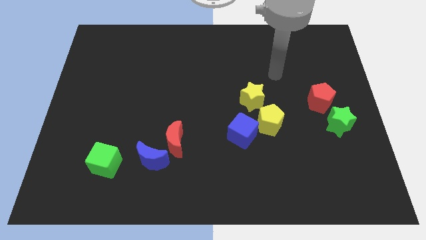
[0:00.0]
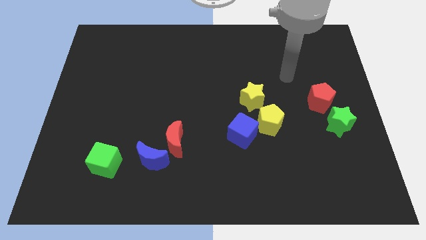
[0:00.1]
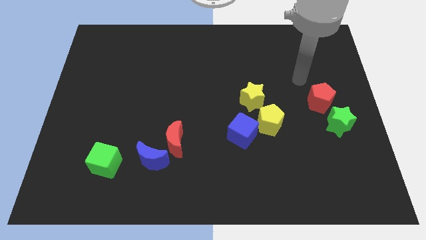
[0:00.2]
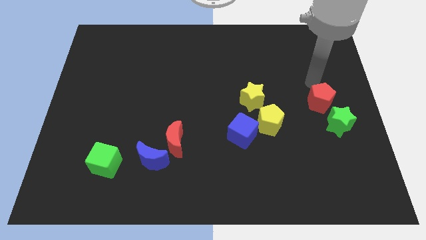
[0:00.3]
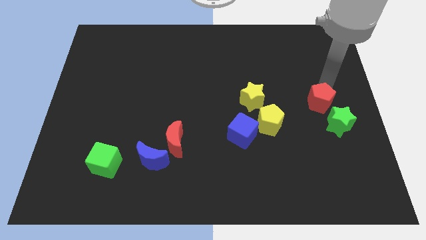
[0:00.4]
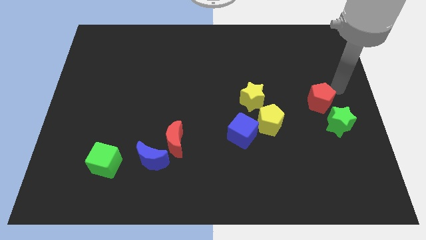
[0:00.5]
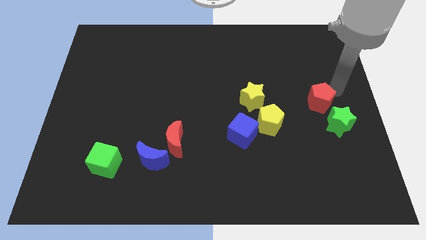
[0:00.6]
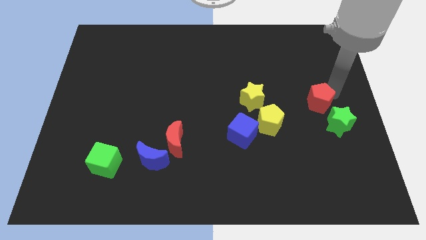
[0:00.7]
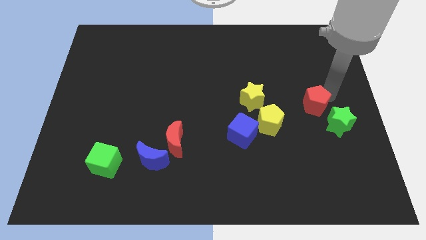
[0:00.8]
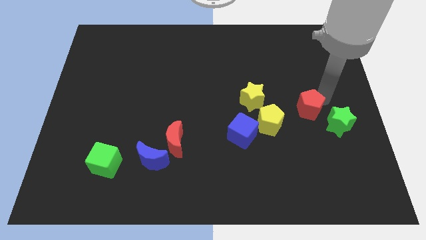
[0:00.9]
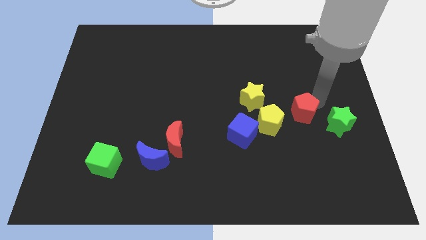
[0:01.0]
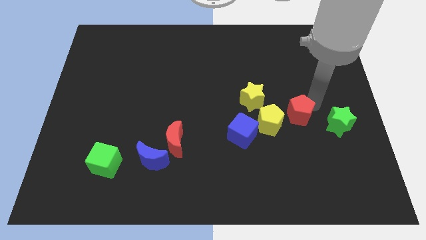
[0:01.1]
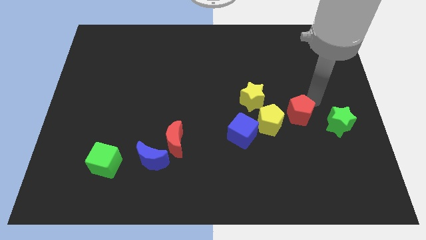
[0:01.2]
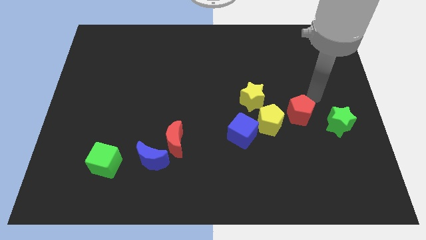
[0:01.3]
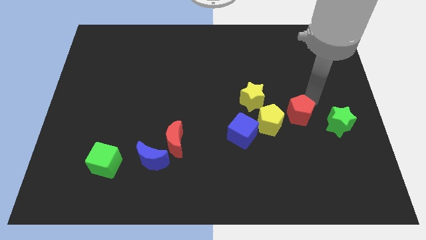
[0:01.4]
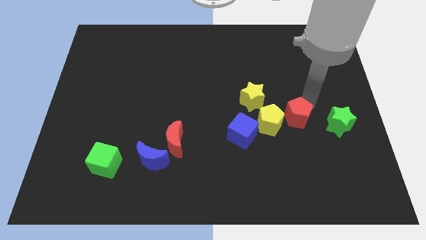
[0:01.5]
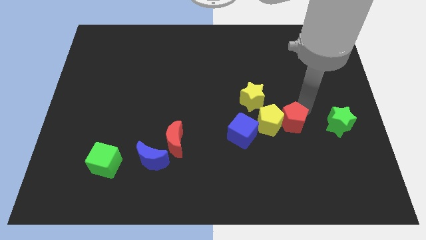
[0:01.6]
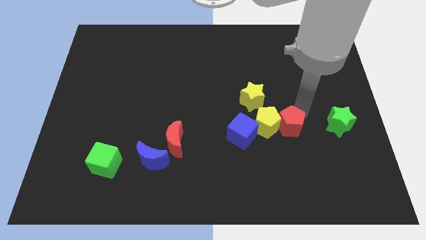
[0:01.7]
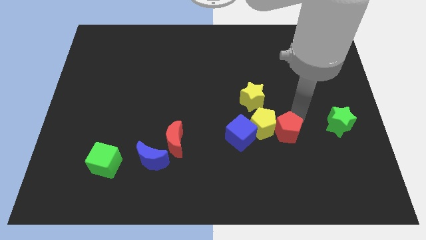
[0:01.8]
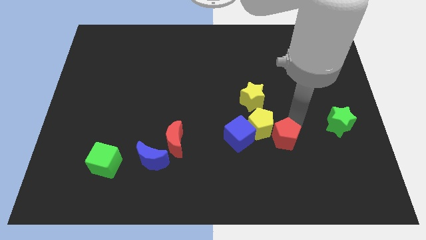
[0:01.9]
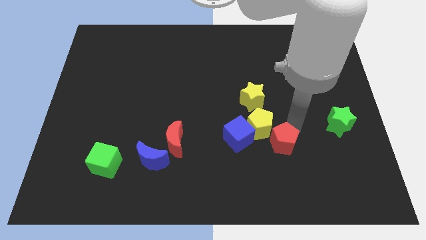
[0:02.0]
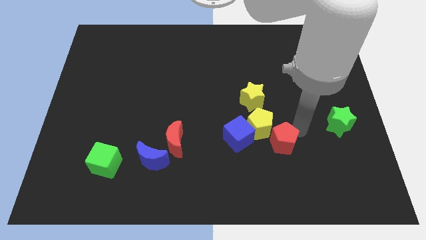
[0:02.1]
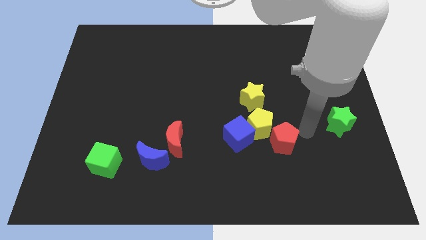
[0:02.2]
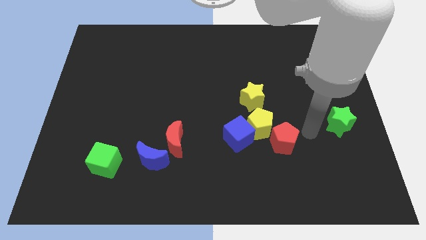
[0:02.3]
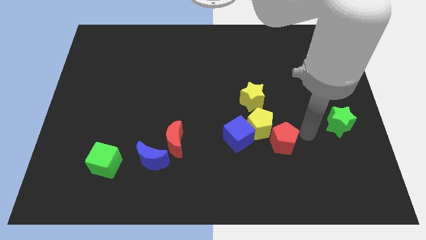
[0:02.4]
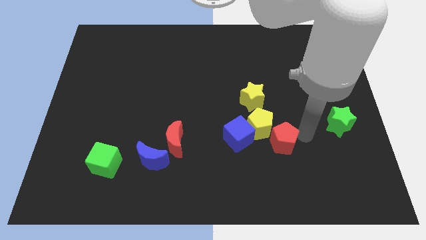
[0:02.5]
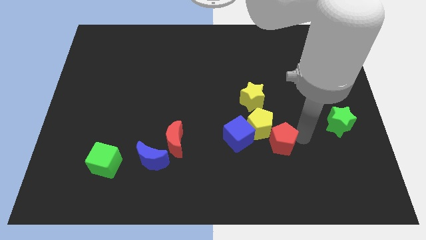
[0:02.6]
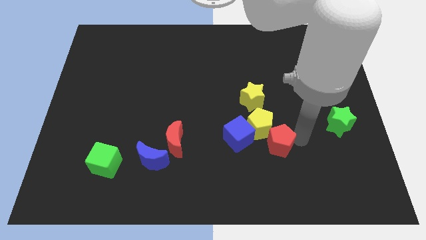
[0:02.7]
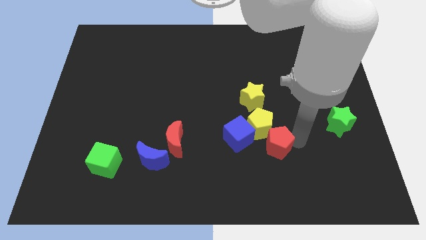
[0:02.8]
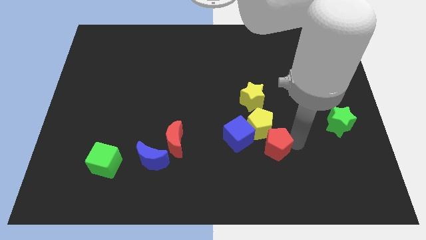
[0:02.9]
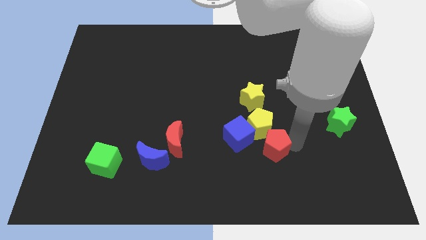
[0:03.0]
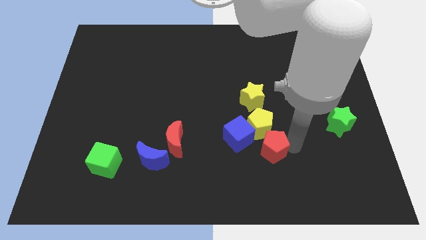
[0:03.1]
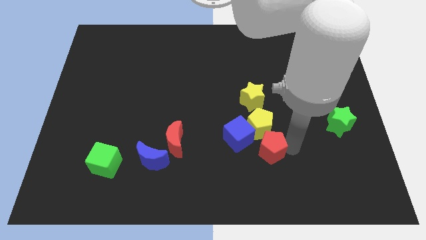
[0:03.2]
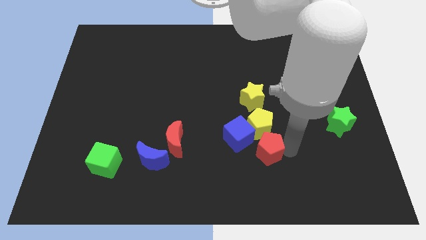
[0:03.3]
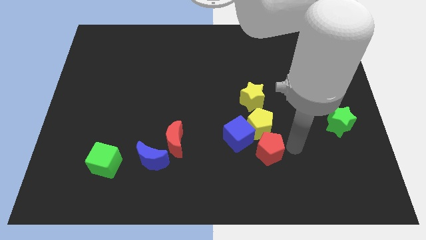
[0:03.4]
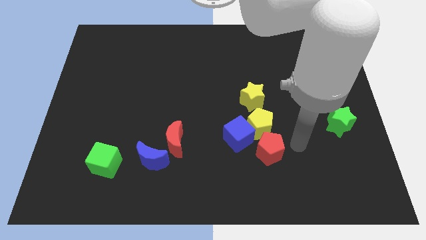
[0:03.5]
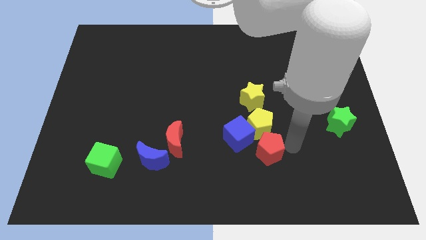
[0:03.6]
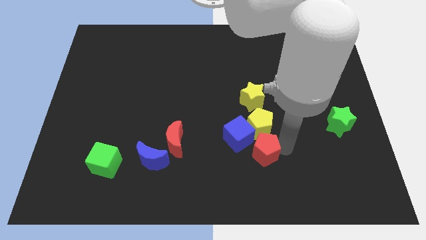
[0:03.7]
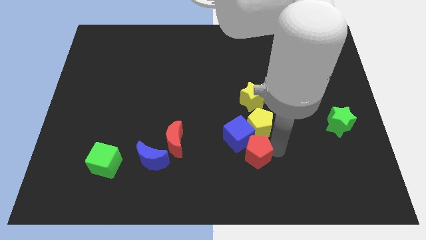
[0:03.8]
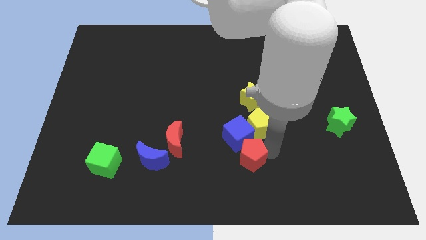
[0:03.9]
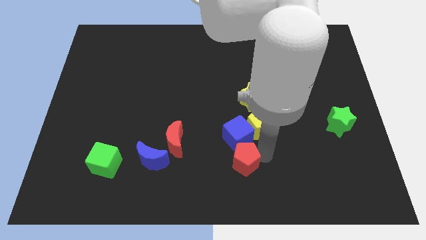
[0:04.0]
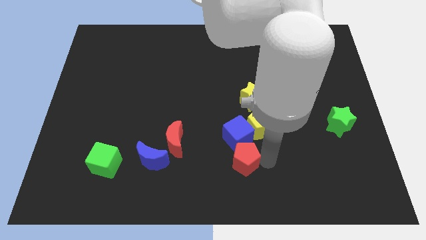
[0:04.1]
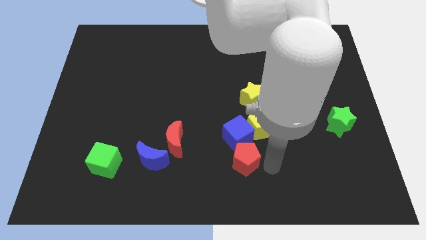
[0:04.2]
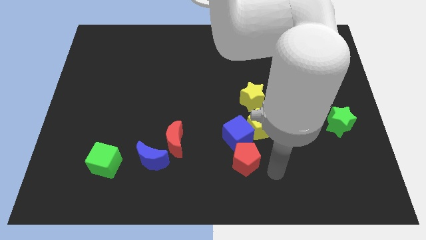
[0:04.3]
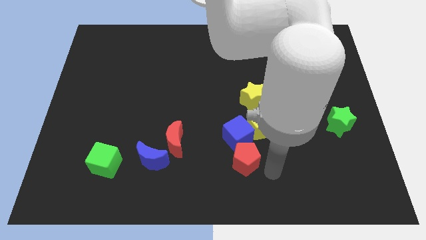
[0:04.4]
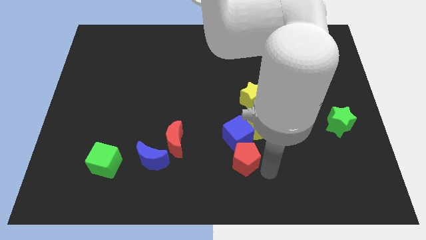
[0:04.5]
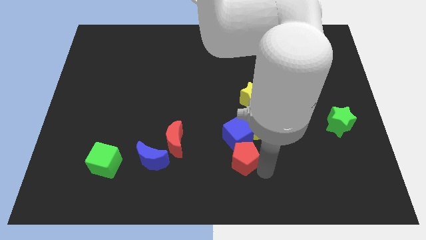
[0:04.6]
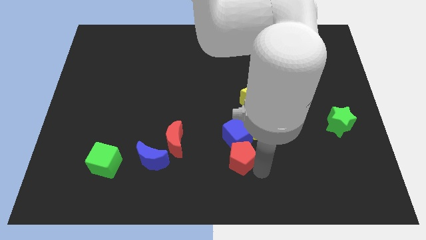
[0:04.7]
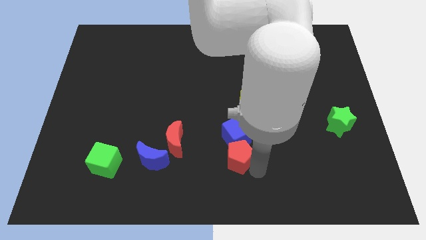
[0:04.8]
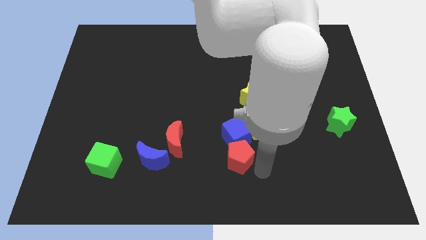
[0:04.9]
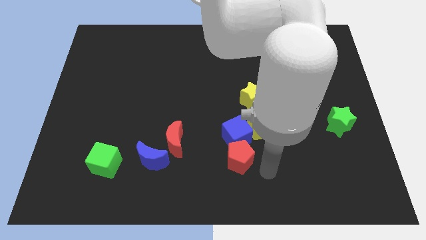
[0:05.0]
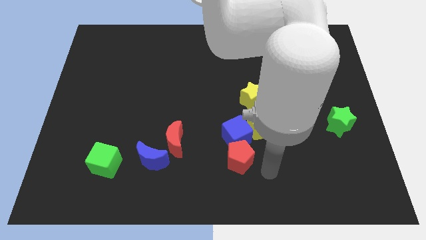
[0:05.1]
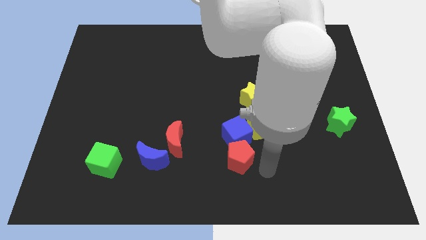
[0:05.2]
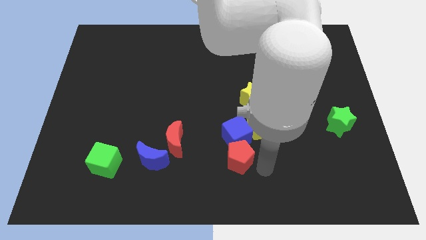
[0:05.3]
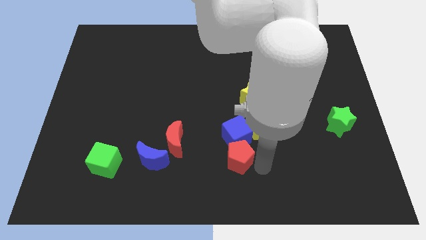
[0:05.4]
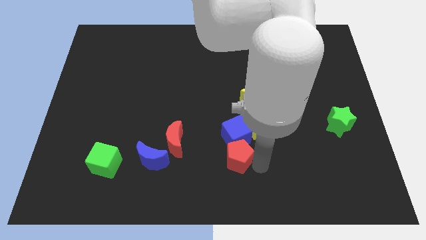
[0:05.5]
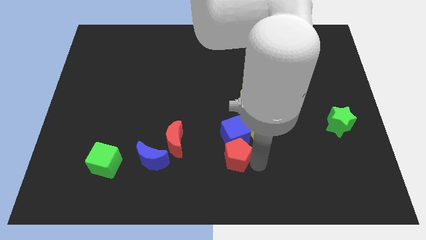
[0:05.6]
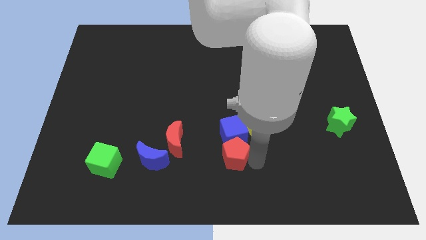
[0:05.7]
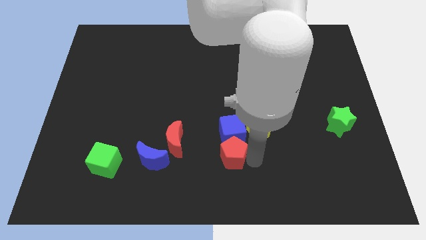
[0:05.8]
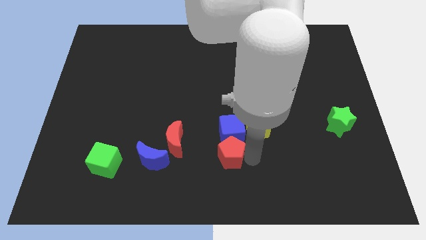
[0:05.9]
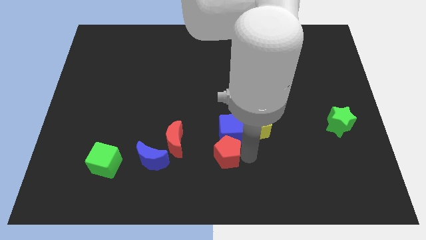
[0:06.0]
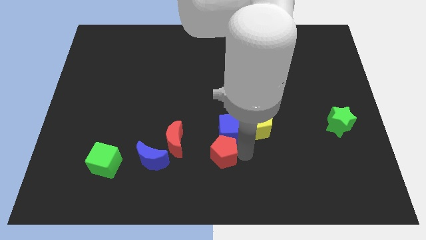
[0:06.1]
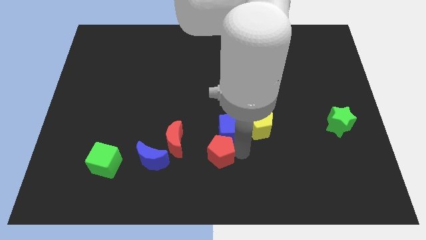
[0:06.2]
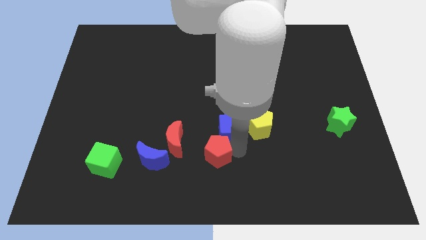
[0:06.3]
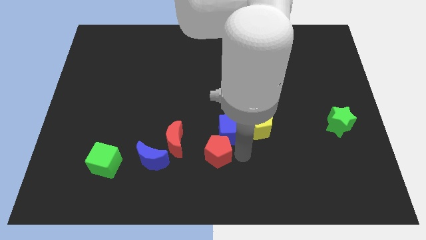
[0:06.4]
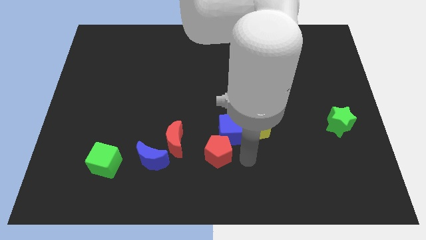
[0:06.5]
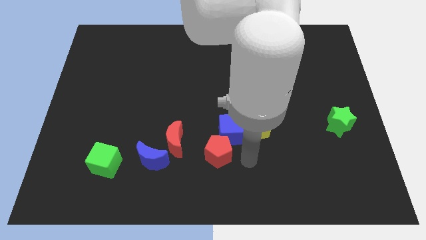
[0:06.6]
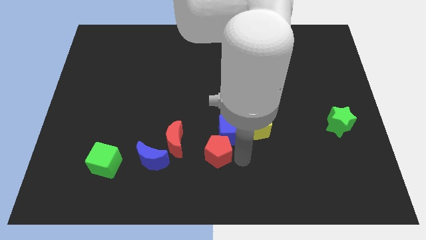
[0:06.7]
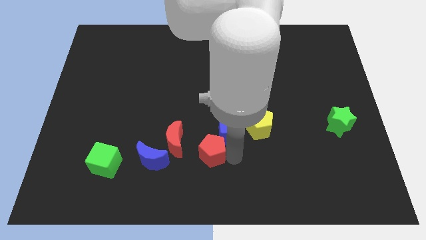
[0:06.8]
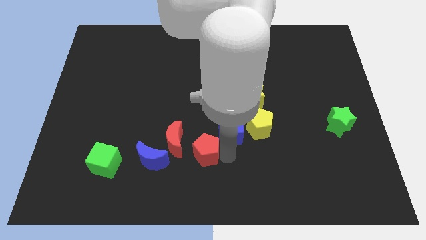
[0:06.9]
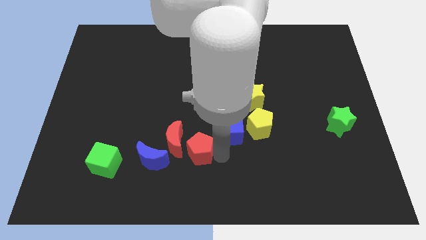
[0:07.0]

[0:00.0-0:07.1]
put the red pentagon to the red moon

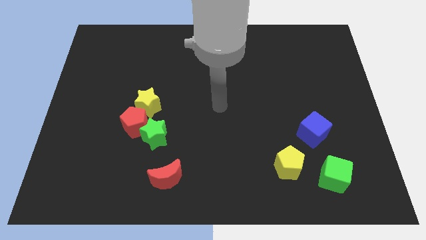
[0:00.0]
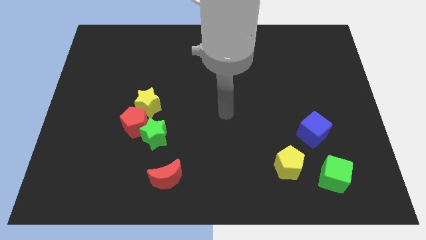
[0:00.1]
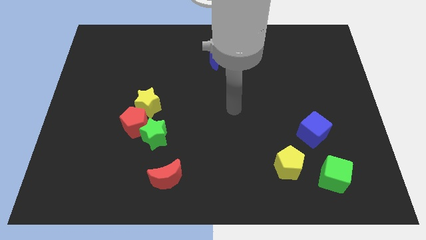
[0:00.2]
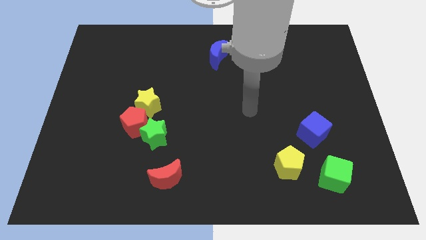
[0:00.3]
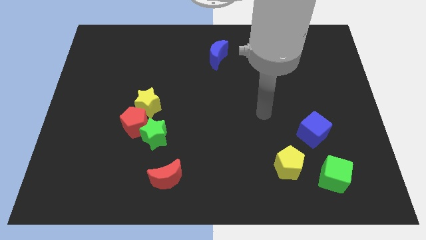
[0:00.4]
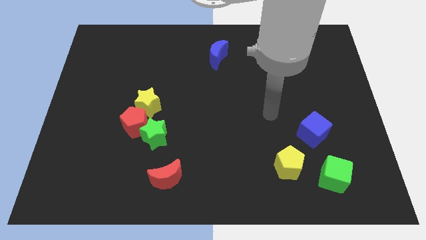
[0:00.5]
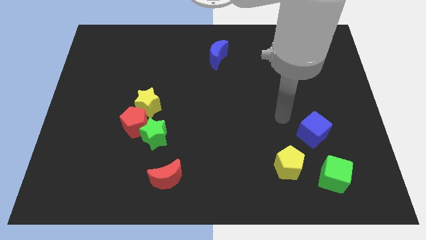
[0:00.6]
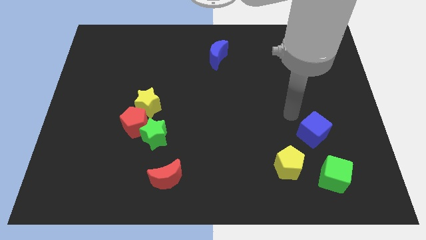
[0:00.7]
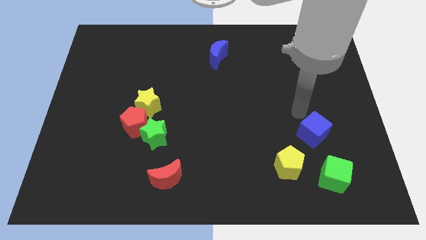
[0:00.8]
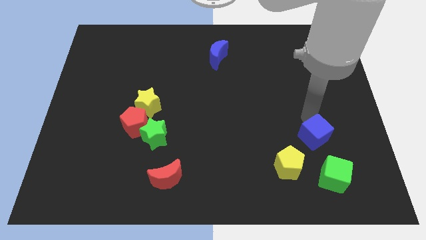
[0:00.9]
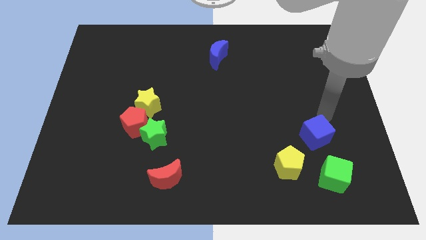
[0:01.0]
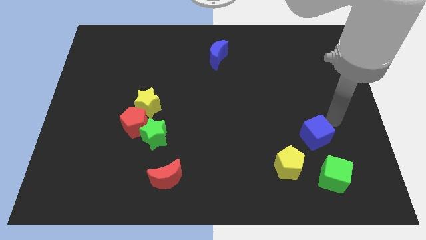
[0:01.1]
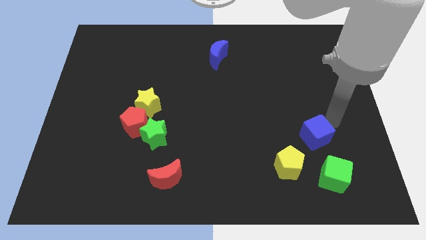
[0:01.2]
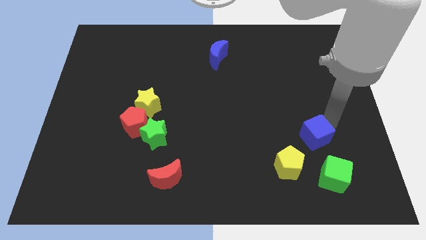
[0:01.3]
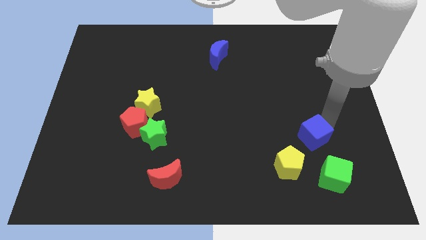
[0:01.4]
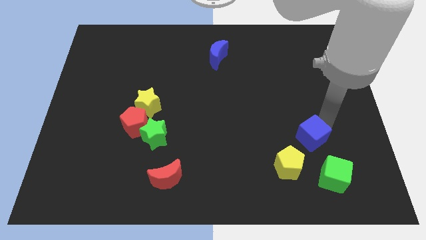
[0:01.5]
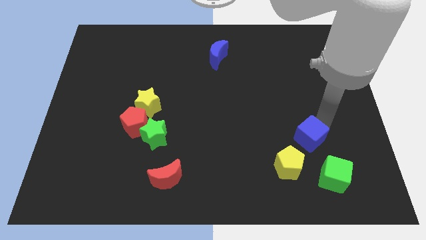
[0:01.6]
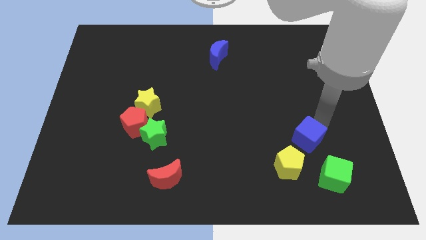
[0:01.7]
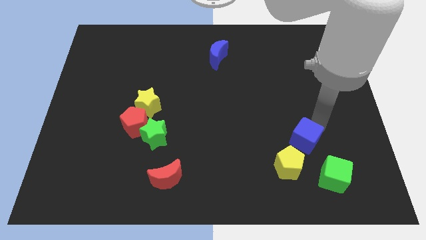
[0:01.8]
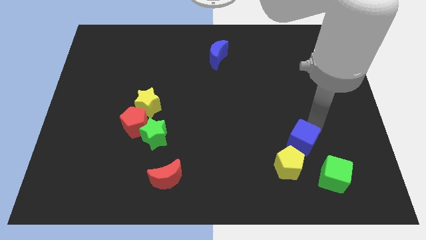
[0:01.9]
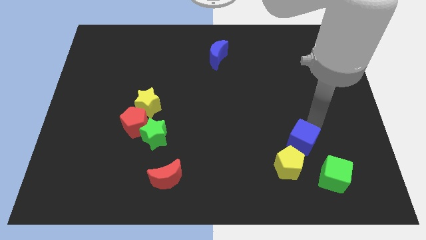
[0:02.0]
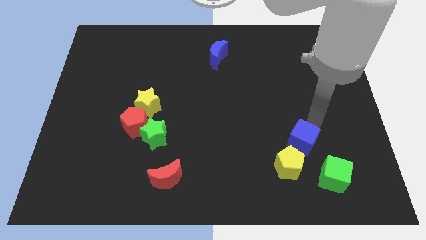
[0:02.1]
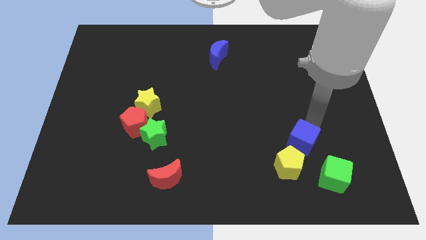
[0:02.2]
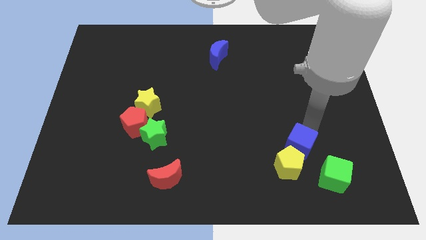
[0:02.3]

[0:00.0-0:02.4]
put the blue cube towards the yellow pentagon
